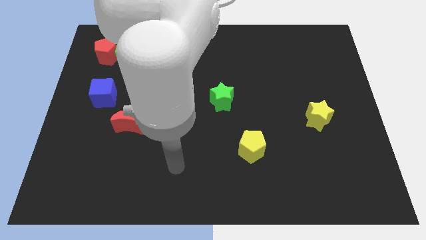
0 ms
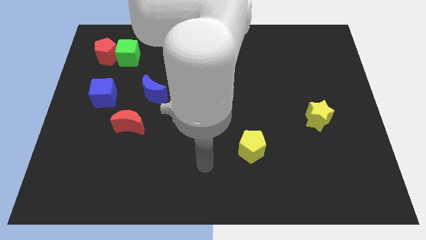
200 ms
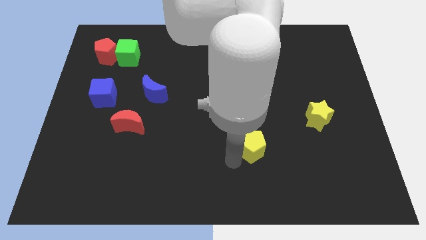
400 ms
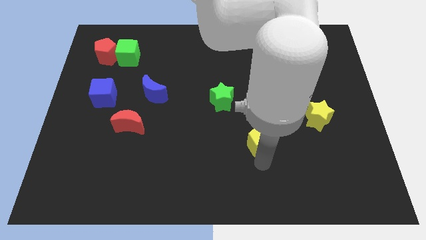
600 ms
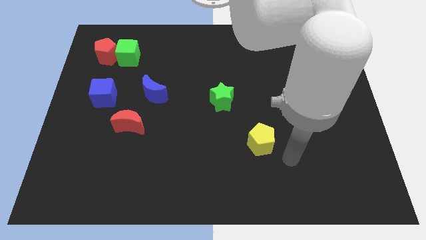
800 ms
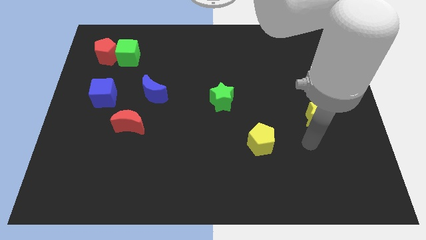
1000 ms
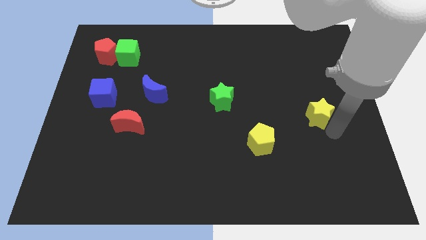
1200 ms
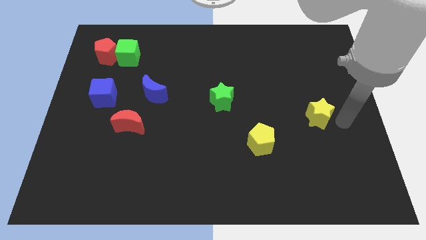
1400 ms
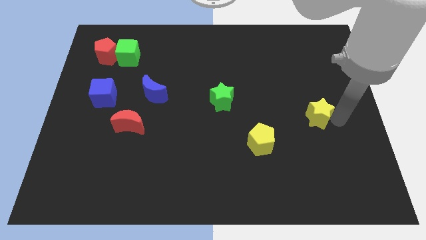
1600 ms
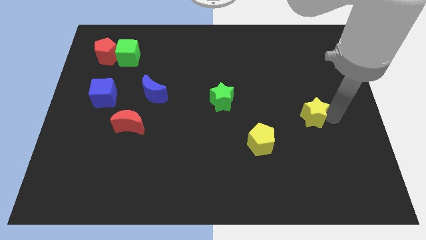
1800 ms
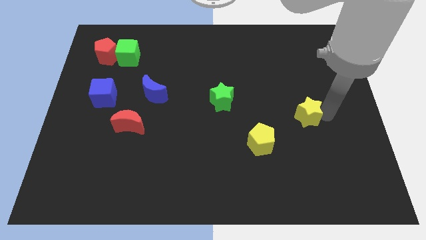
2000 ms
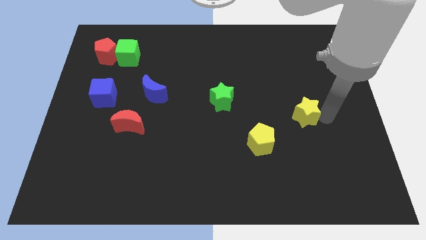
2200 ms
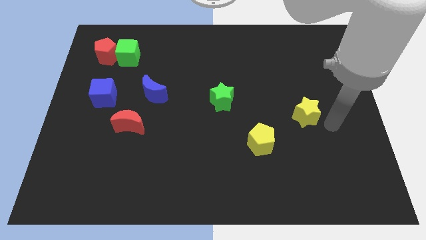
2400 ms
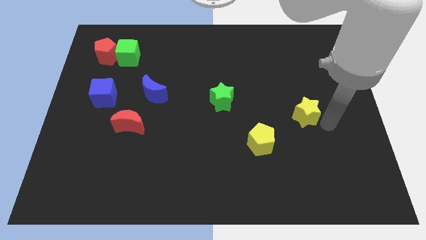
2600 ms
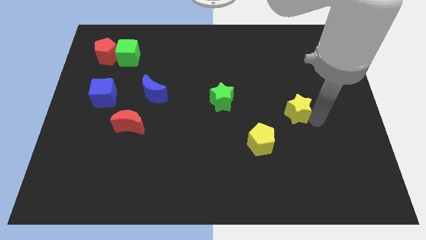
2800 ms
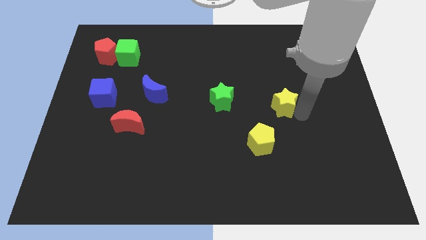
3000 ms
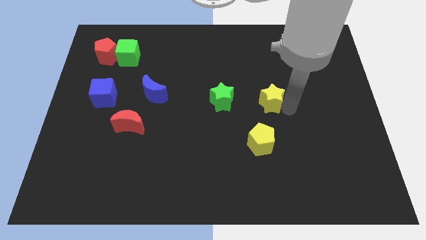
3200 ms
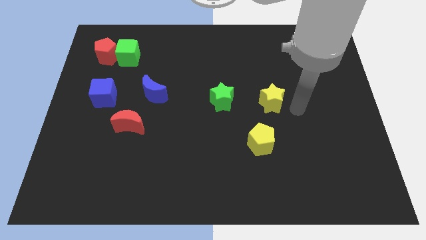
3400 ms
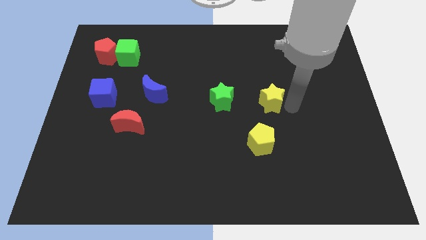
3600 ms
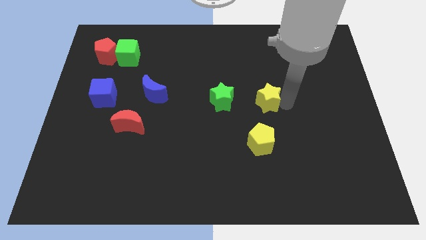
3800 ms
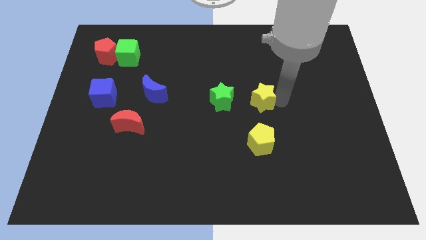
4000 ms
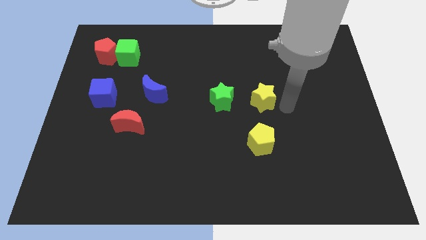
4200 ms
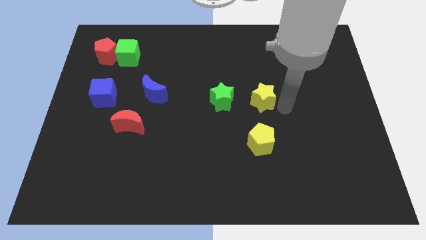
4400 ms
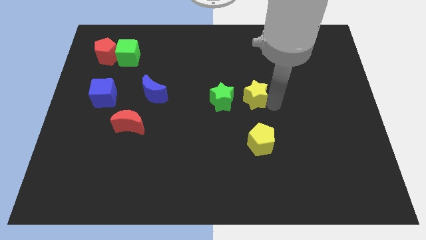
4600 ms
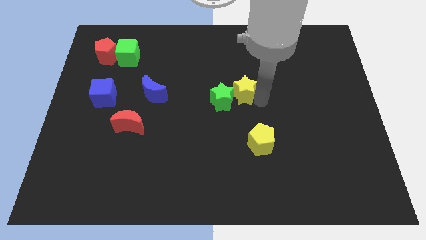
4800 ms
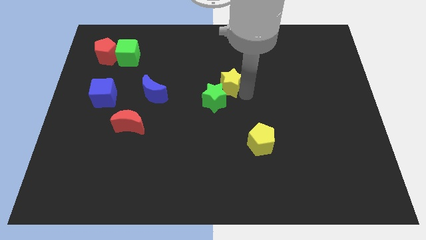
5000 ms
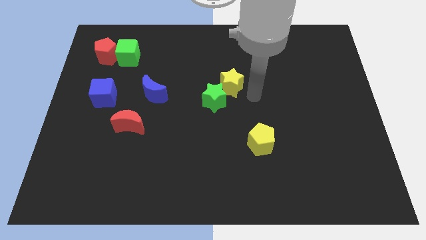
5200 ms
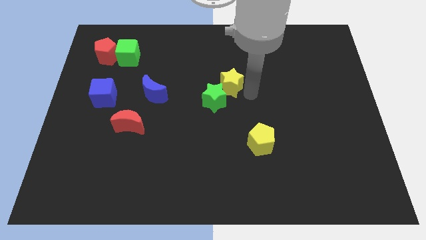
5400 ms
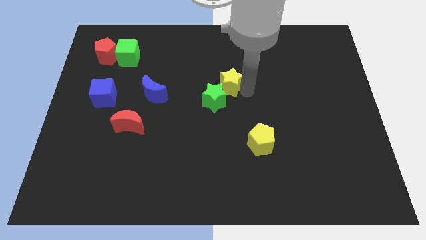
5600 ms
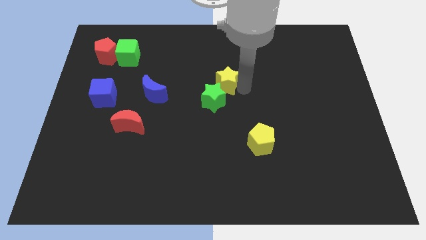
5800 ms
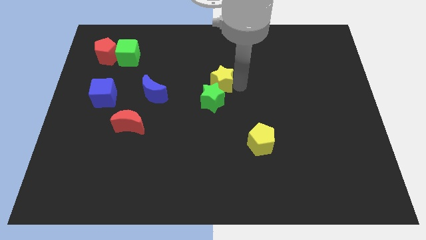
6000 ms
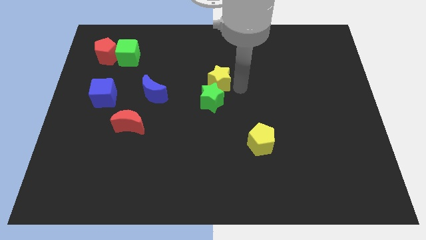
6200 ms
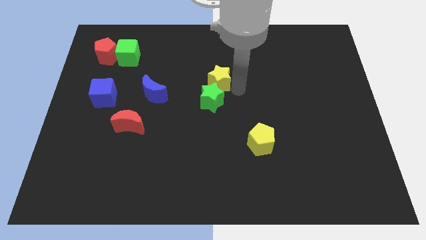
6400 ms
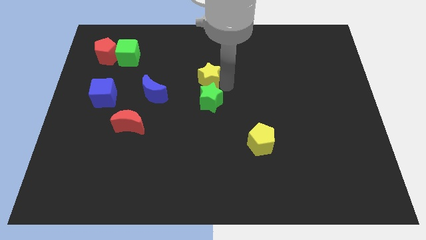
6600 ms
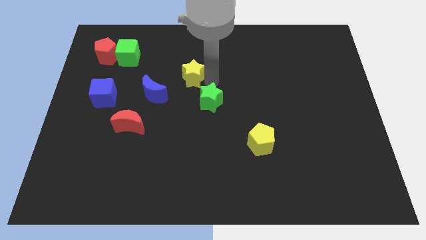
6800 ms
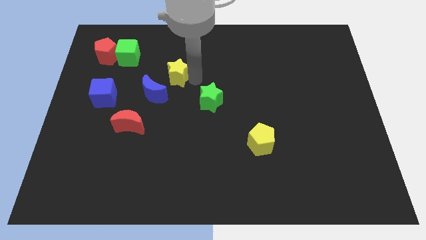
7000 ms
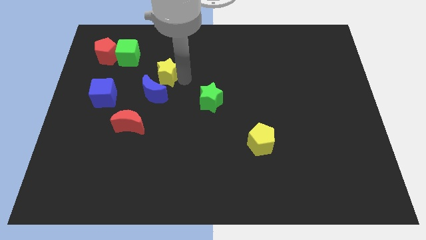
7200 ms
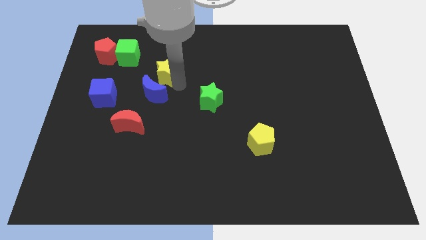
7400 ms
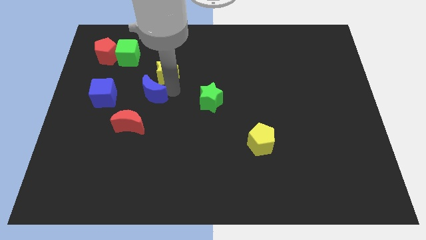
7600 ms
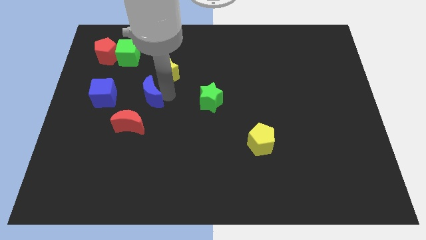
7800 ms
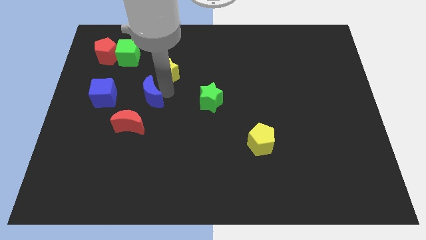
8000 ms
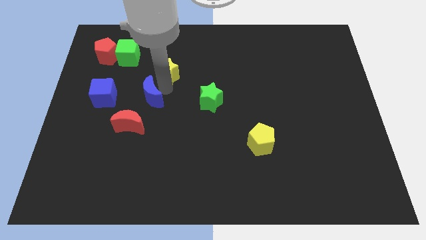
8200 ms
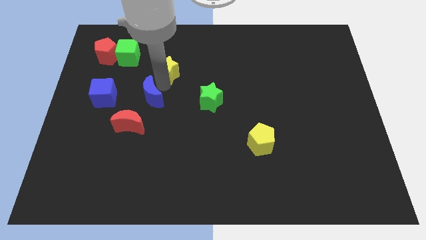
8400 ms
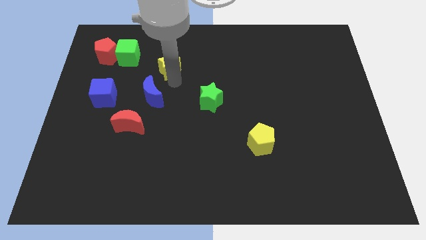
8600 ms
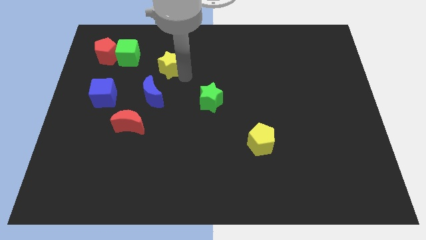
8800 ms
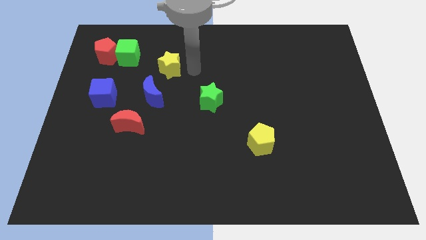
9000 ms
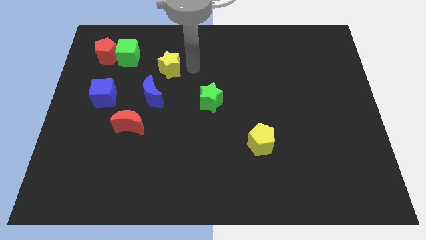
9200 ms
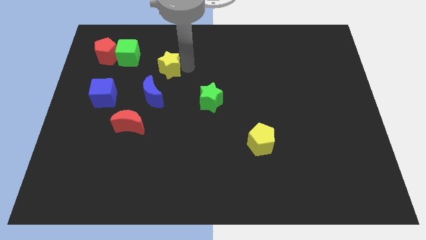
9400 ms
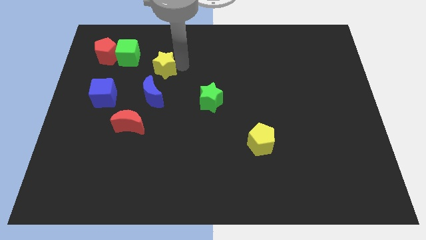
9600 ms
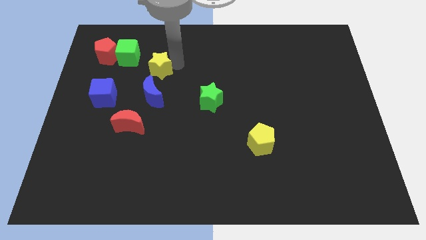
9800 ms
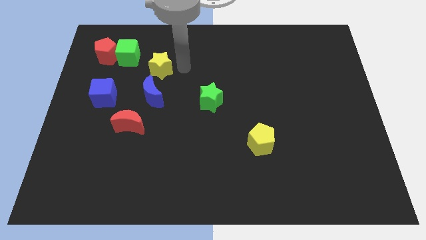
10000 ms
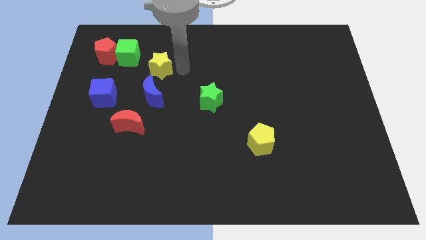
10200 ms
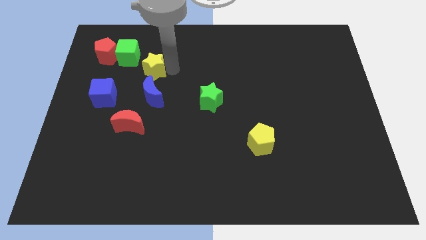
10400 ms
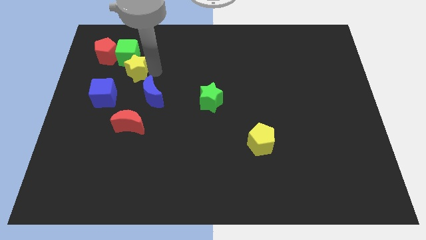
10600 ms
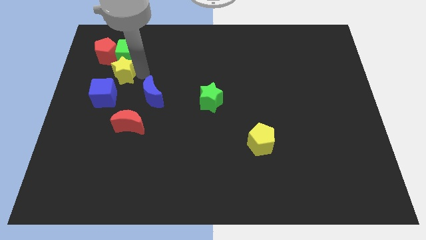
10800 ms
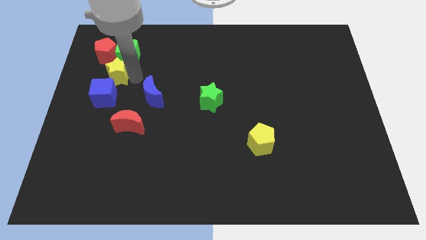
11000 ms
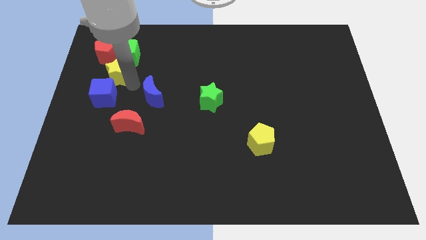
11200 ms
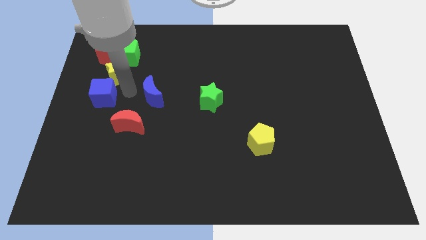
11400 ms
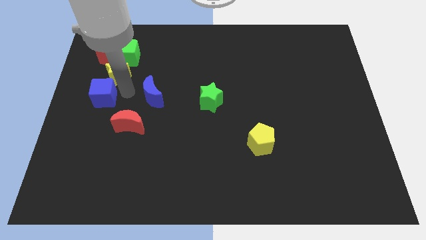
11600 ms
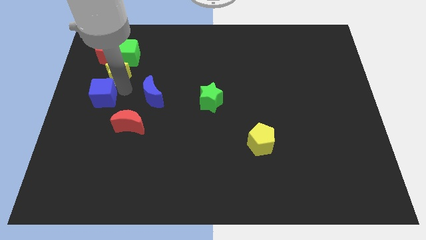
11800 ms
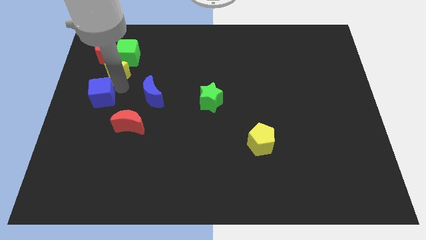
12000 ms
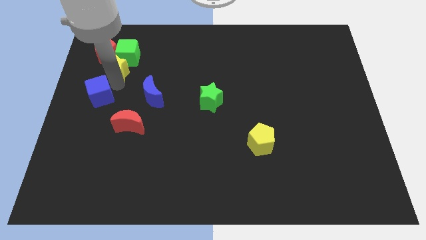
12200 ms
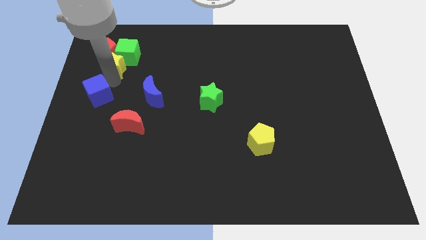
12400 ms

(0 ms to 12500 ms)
push the yellow star to the red pentagon

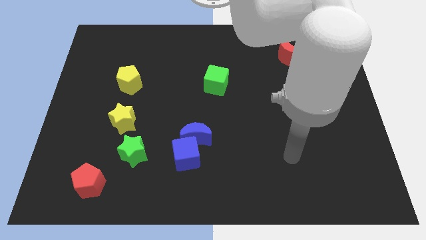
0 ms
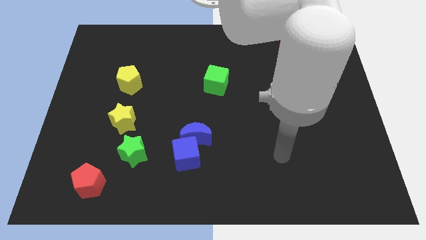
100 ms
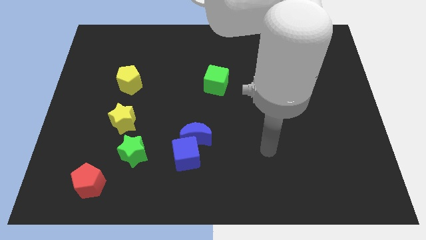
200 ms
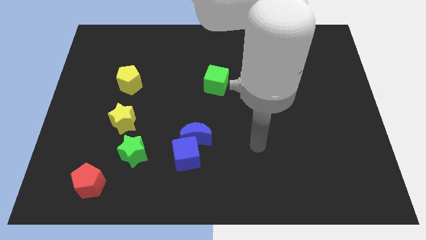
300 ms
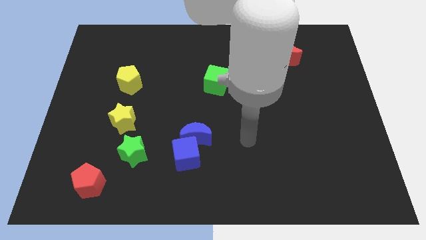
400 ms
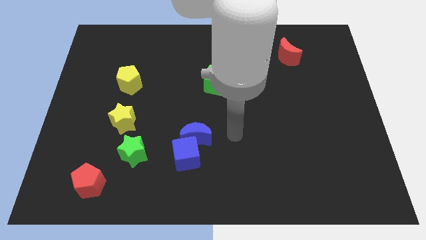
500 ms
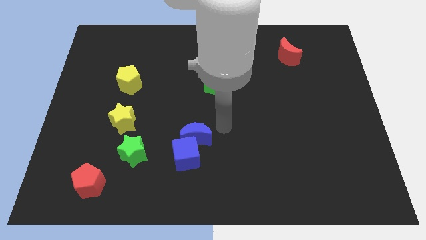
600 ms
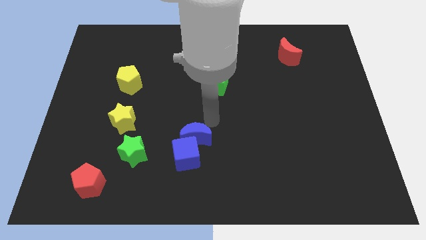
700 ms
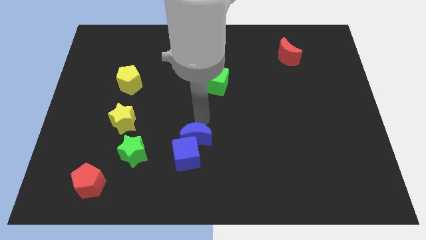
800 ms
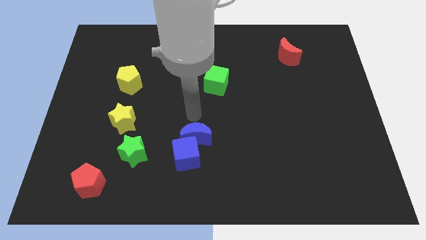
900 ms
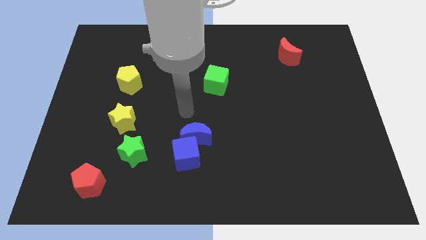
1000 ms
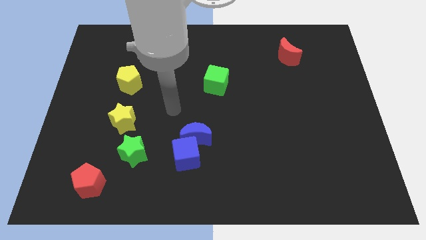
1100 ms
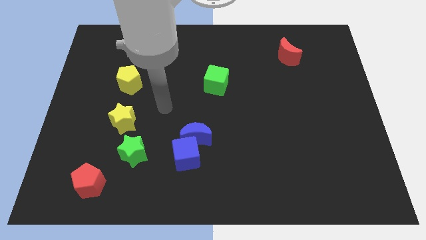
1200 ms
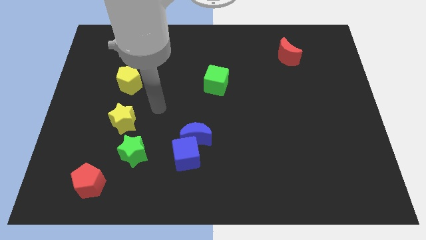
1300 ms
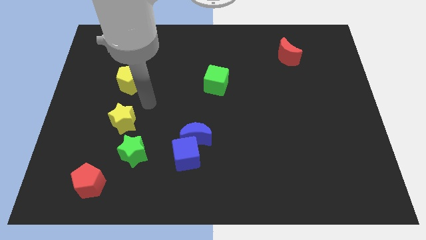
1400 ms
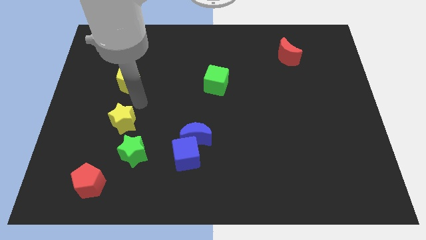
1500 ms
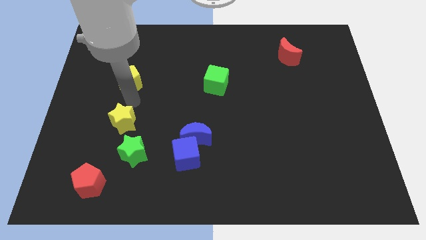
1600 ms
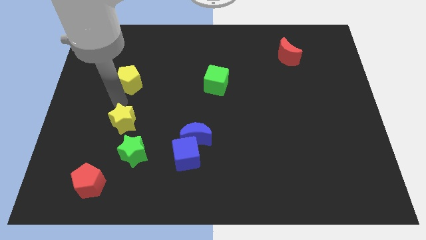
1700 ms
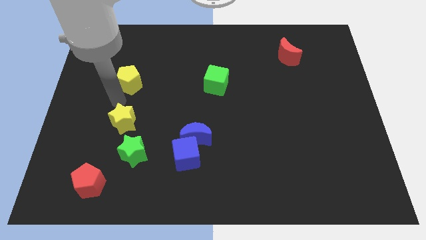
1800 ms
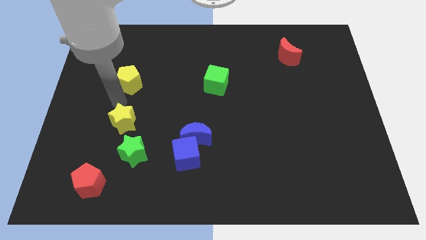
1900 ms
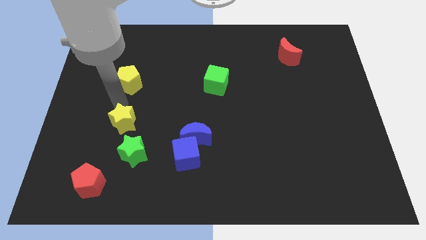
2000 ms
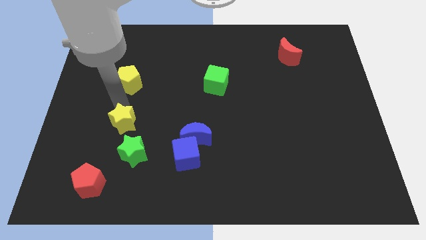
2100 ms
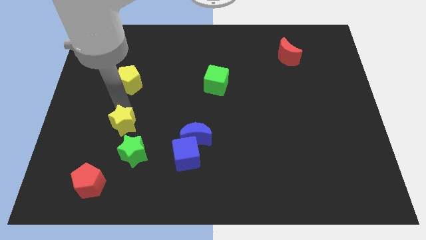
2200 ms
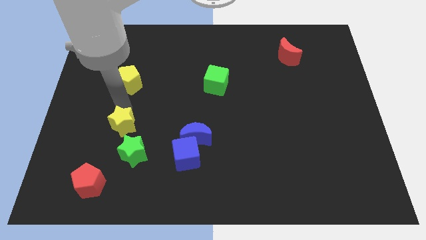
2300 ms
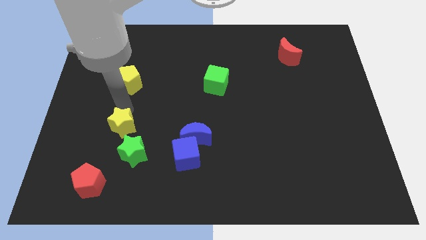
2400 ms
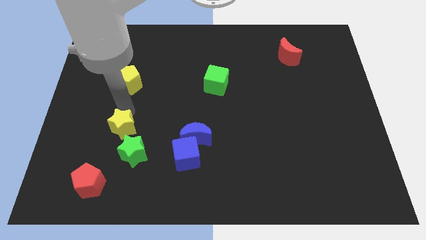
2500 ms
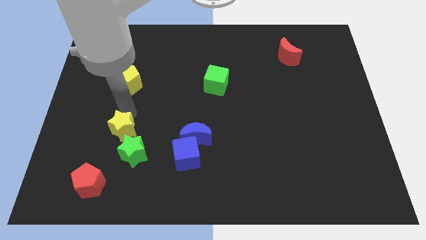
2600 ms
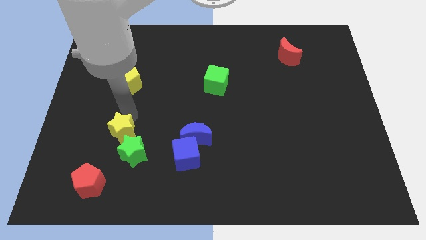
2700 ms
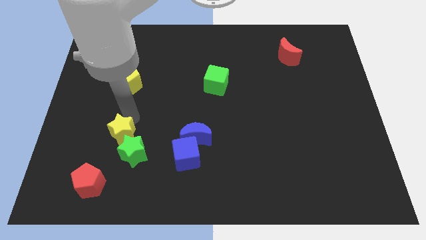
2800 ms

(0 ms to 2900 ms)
slide the yellow star towards the green star
